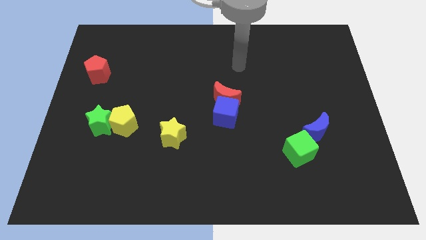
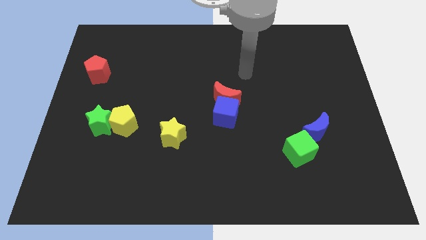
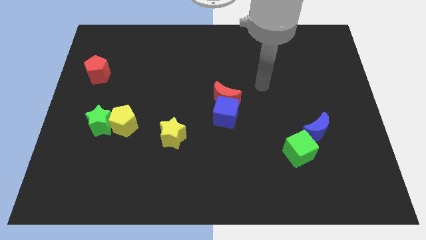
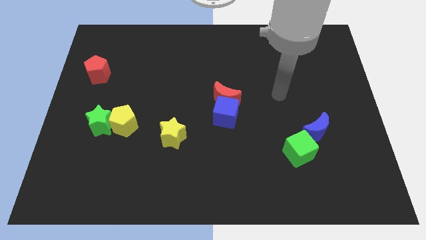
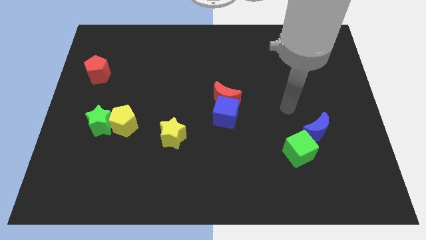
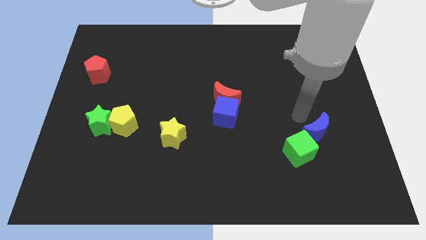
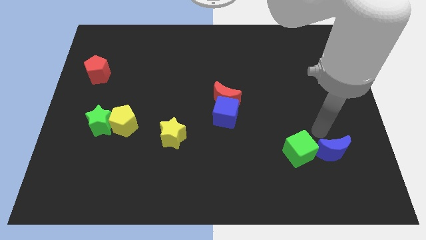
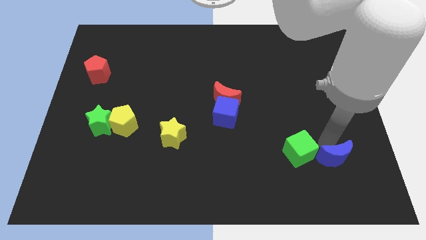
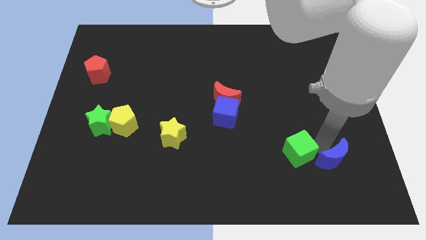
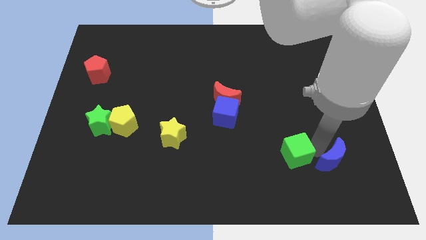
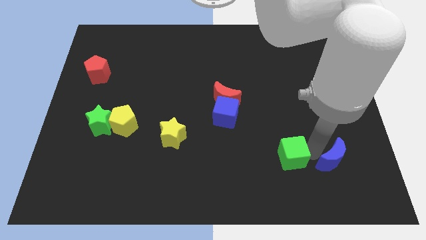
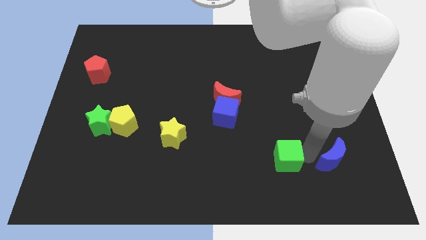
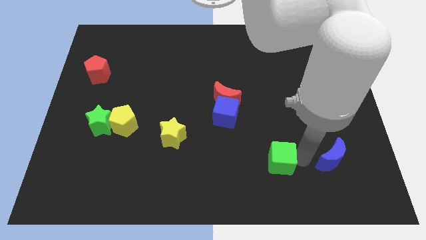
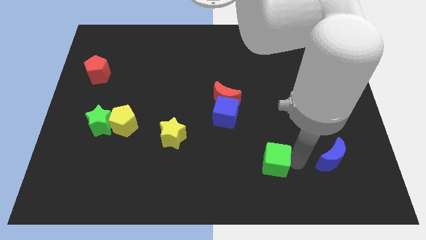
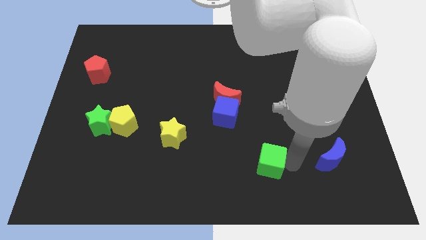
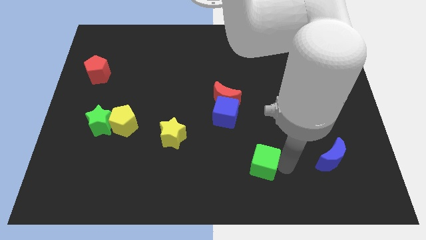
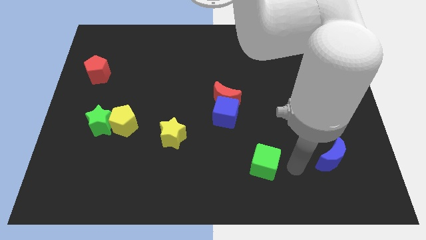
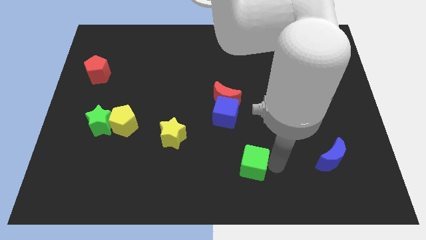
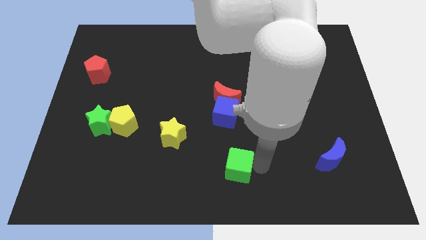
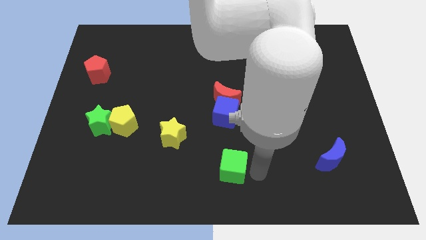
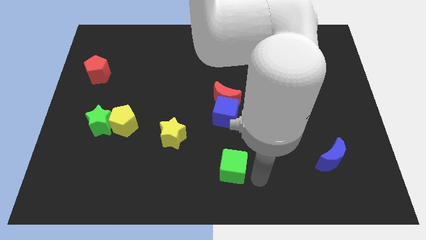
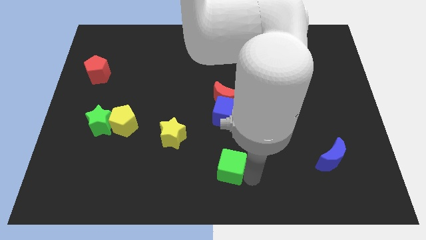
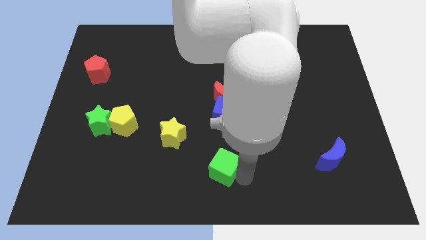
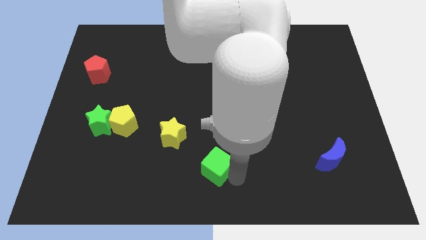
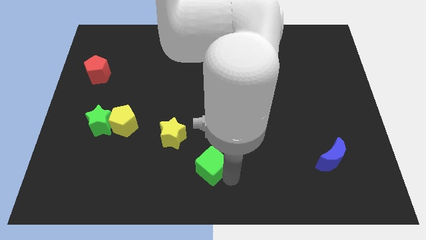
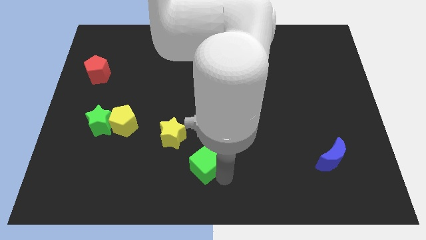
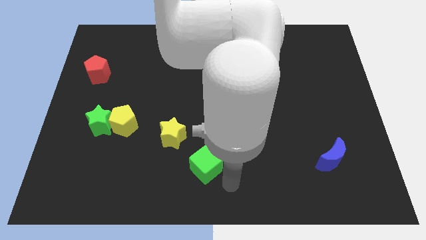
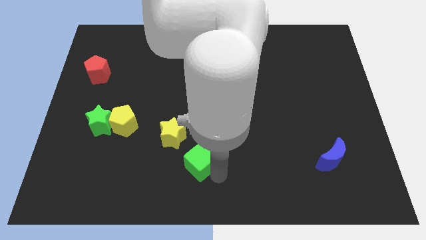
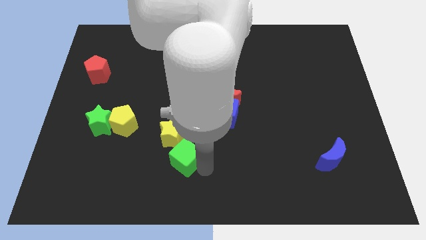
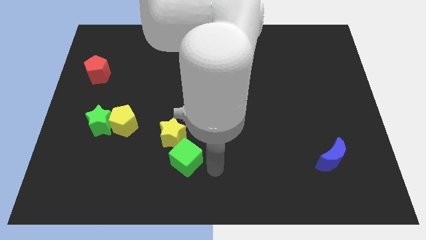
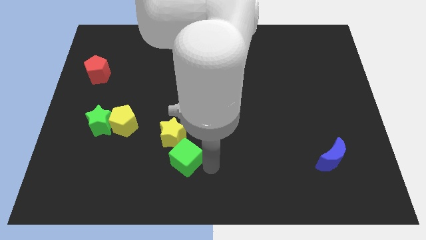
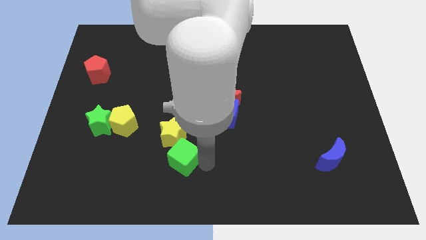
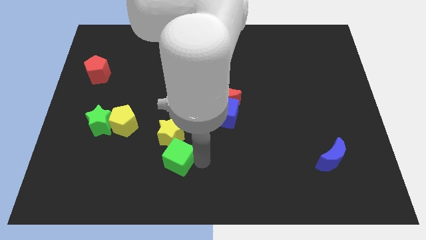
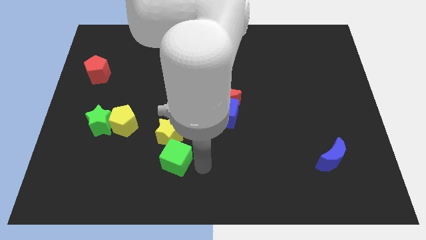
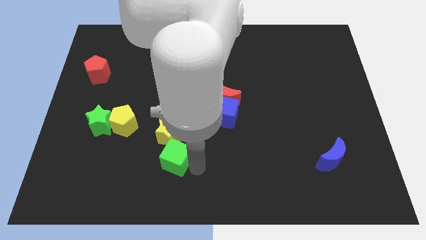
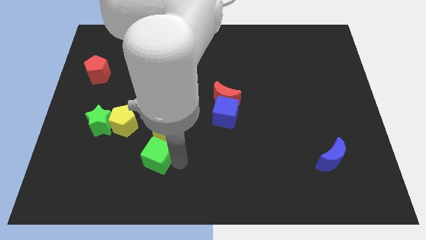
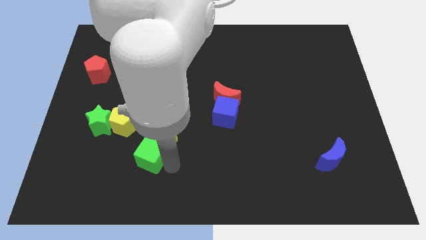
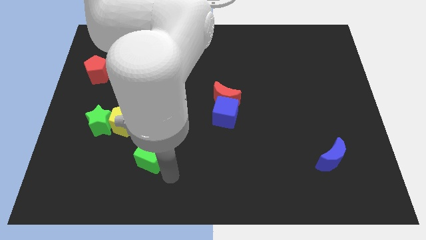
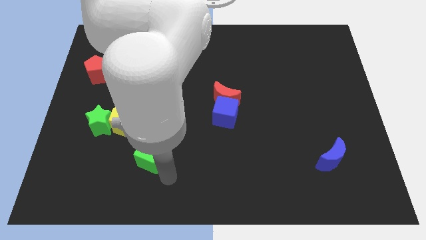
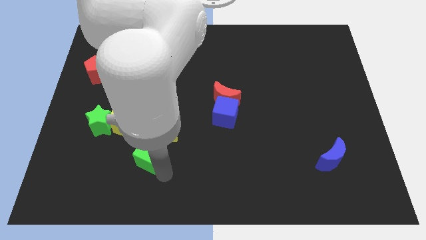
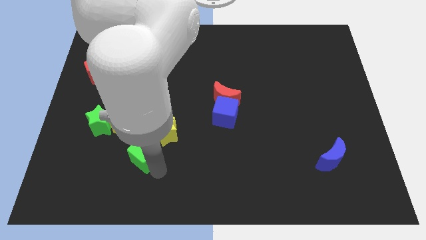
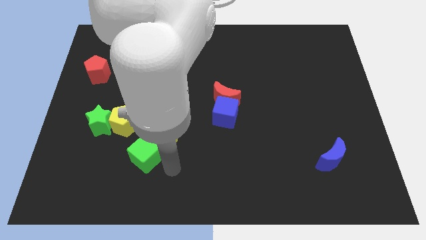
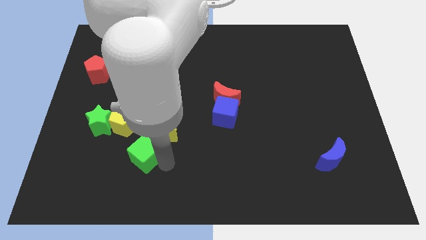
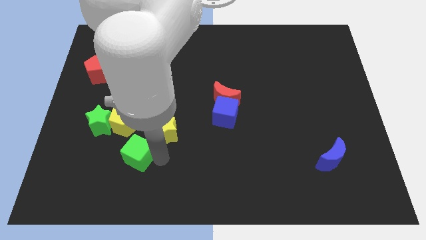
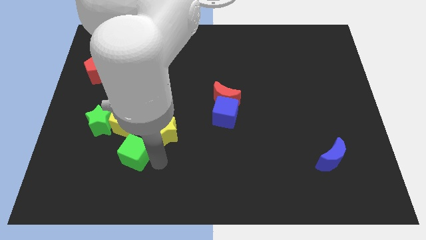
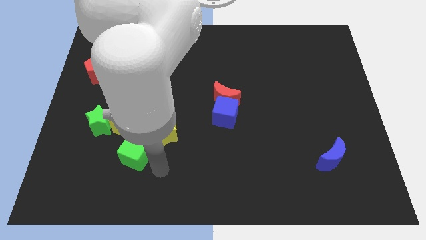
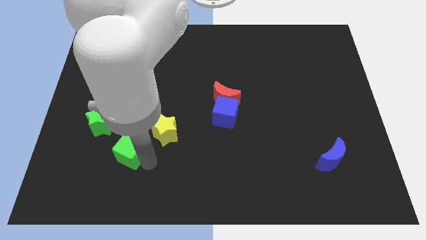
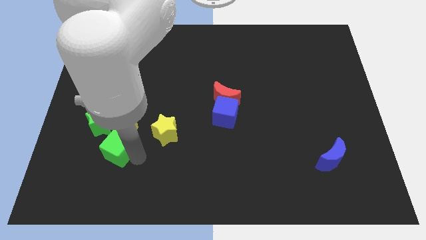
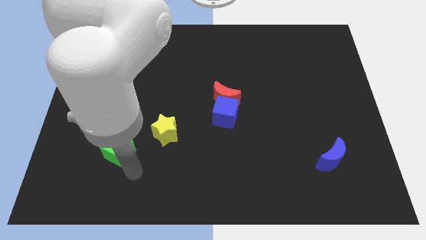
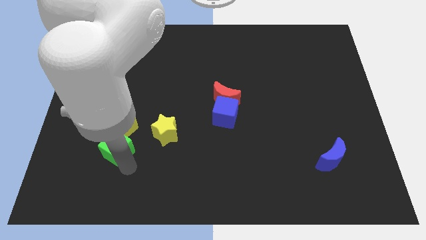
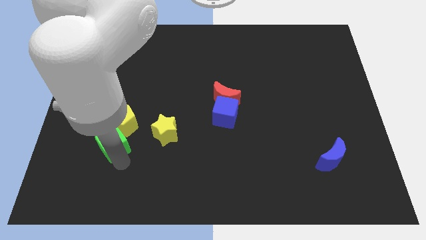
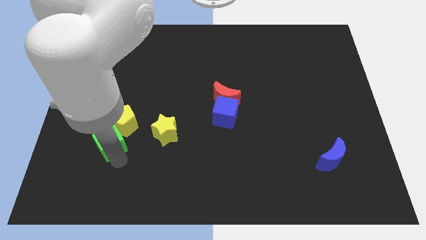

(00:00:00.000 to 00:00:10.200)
put the green cube to the green star

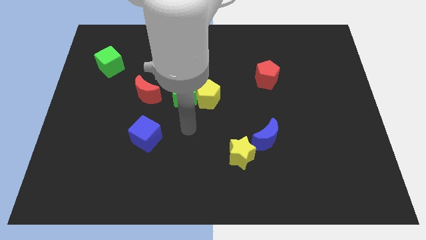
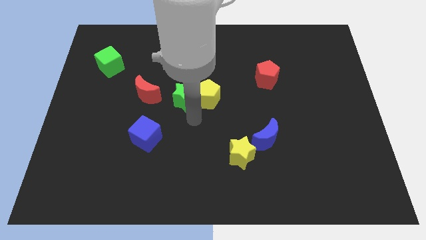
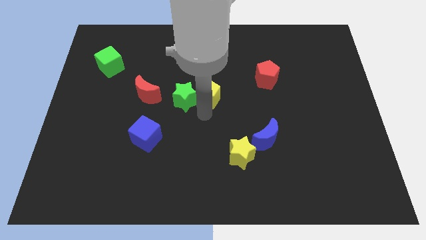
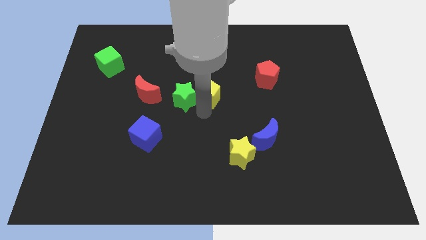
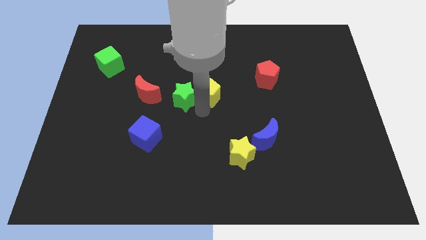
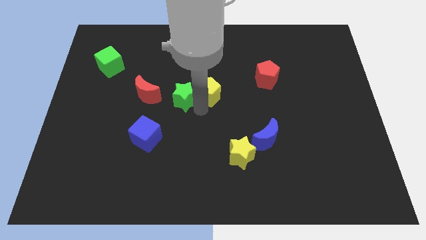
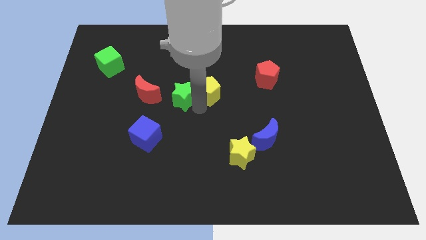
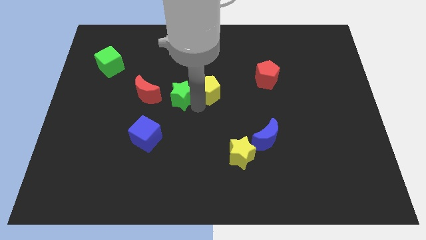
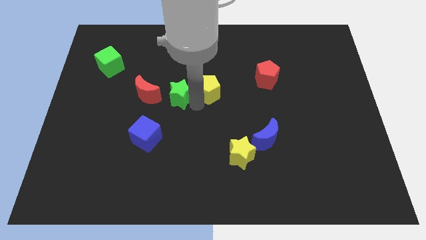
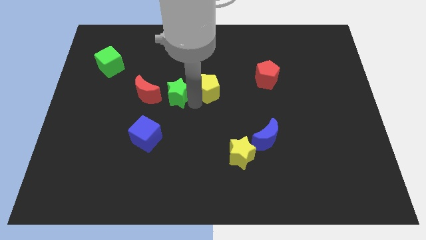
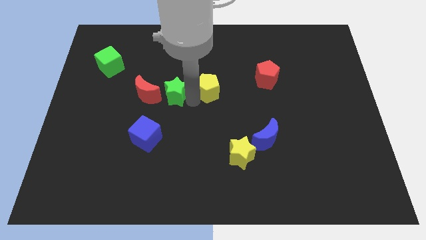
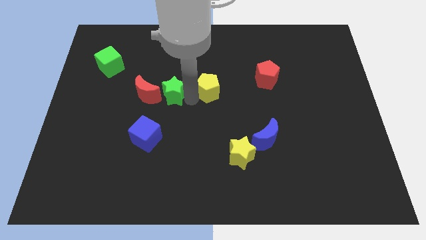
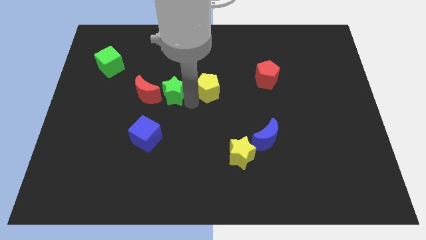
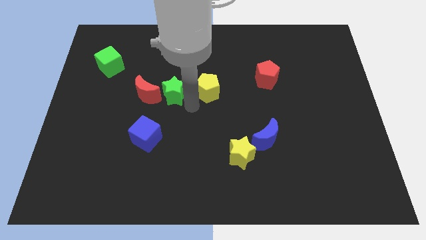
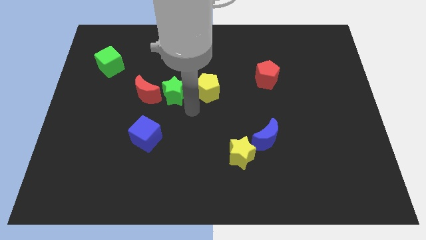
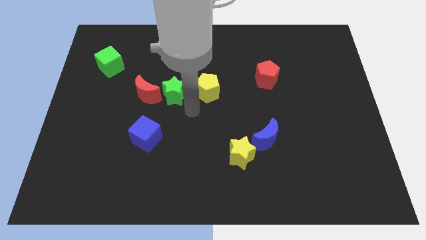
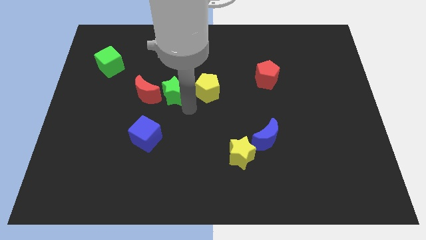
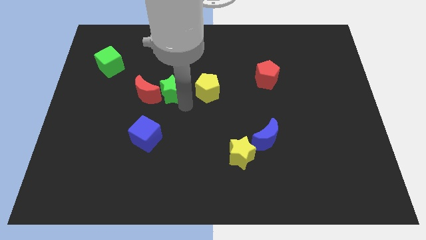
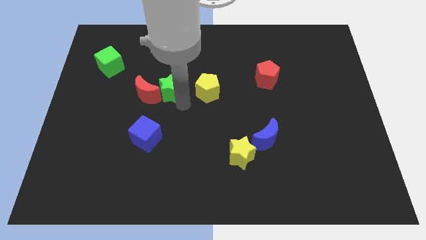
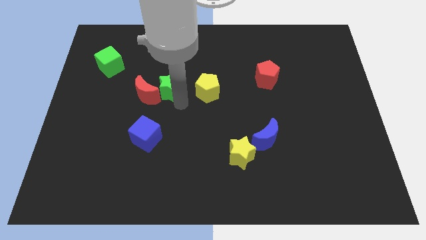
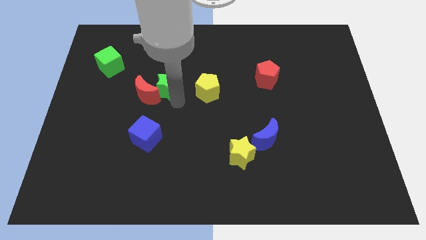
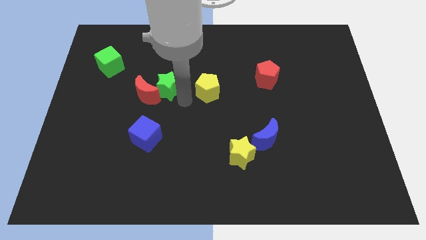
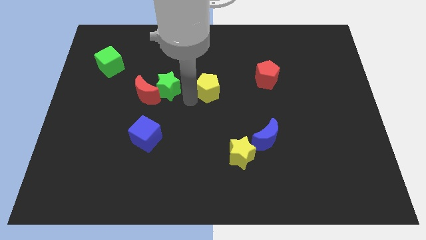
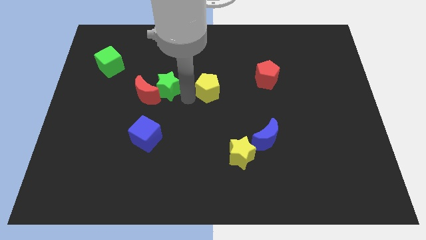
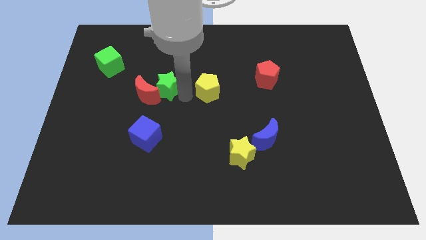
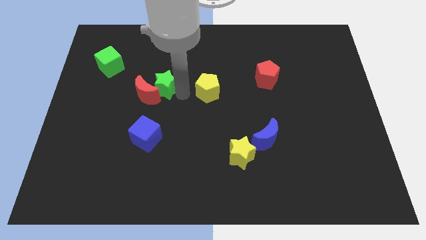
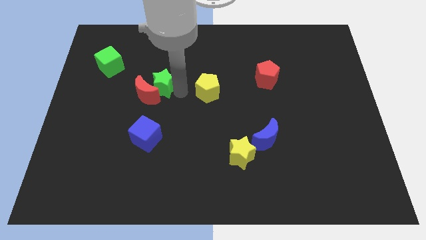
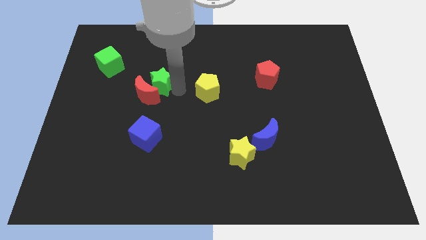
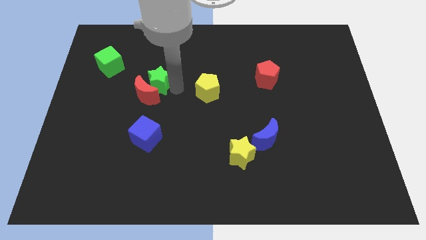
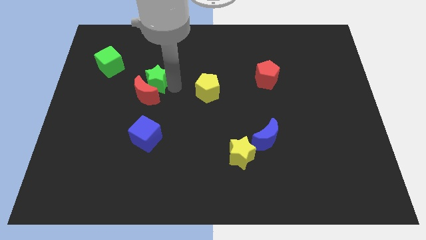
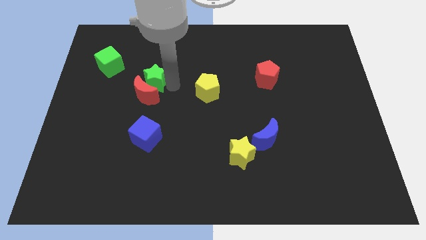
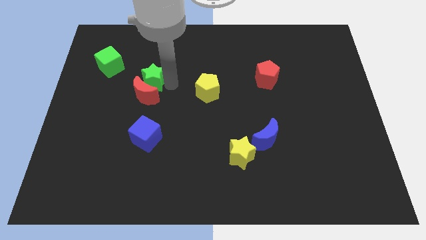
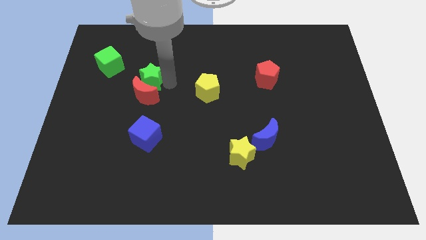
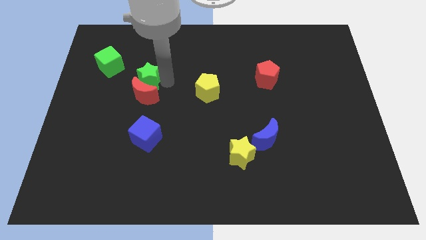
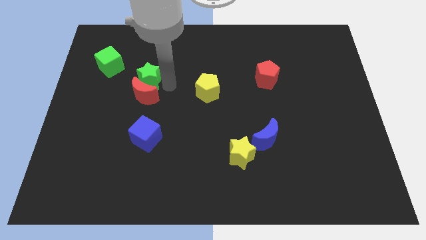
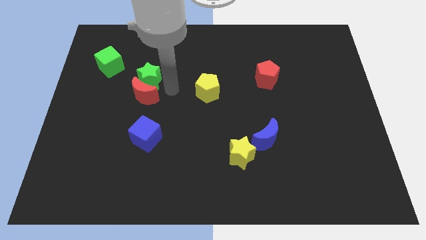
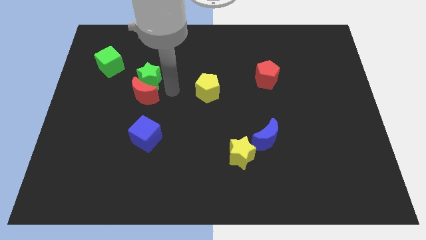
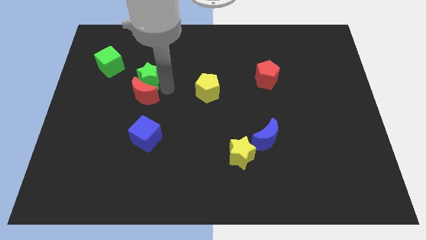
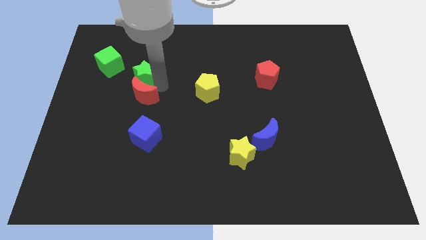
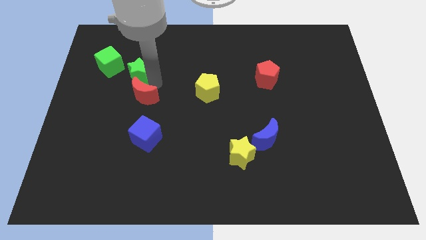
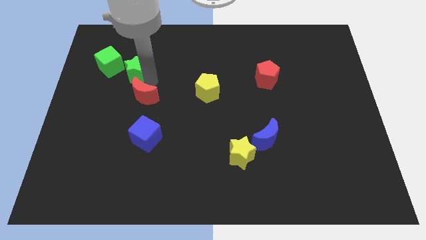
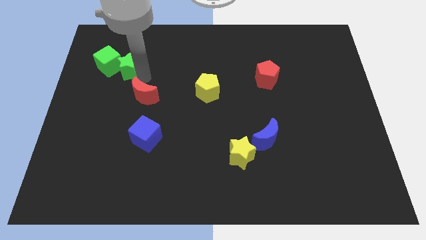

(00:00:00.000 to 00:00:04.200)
slide the green star next to the green cube
